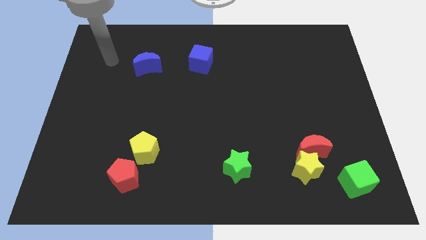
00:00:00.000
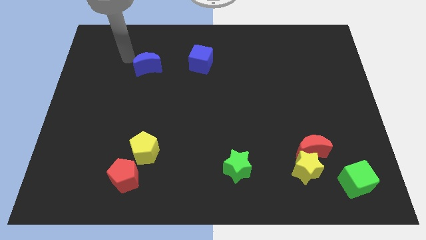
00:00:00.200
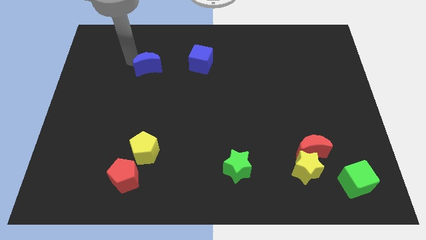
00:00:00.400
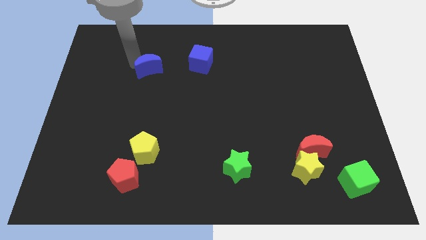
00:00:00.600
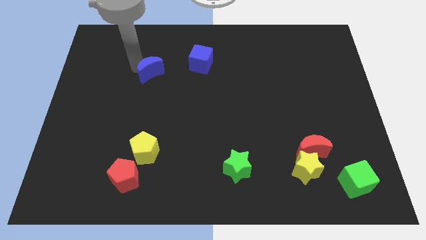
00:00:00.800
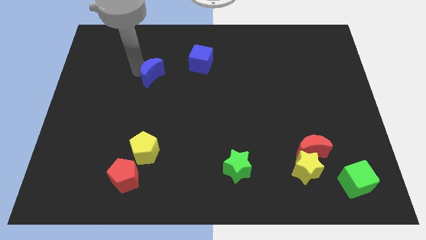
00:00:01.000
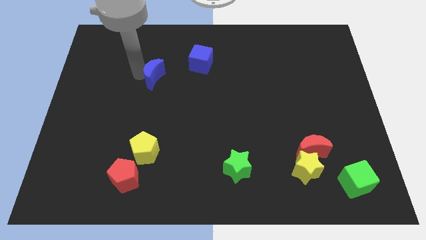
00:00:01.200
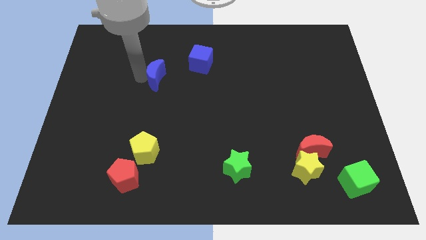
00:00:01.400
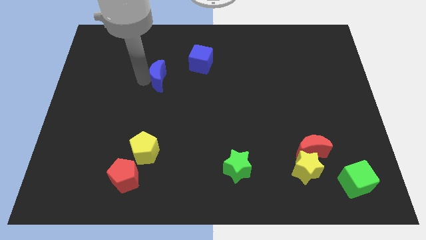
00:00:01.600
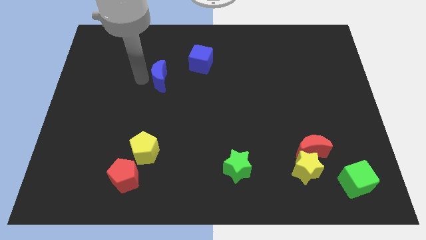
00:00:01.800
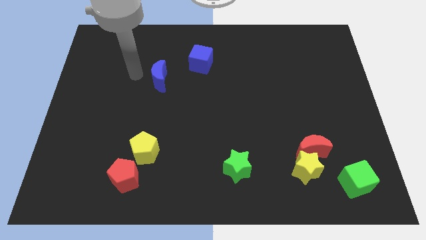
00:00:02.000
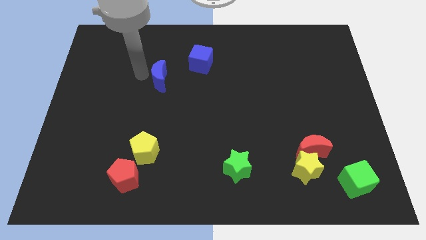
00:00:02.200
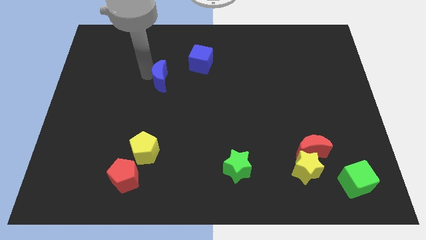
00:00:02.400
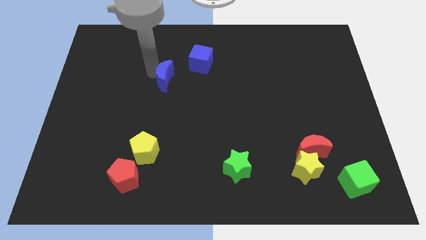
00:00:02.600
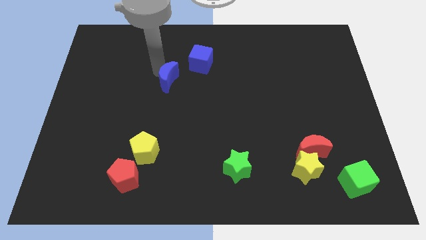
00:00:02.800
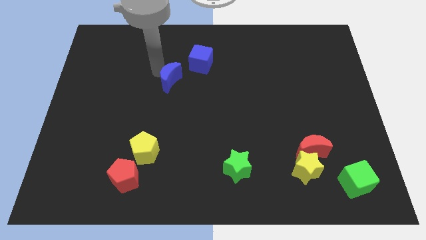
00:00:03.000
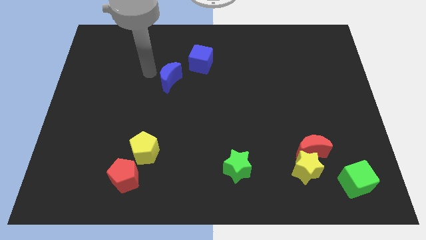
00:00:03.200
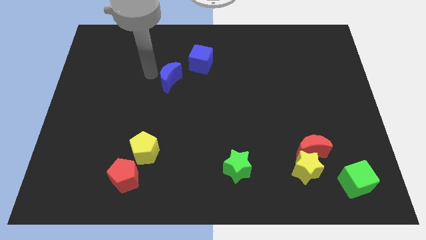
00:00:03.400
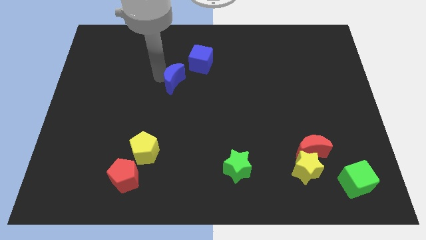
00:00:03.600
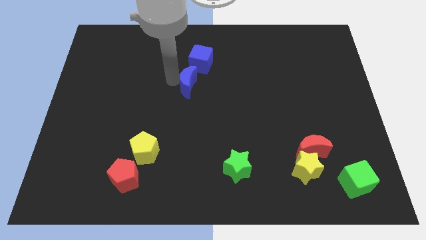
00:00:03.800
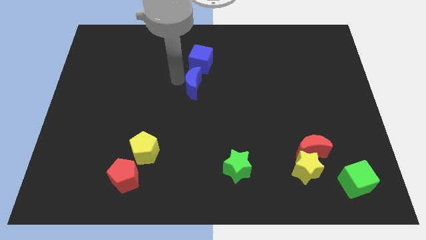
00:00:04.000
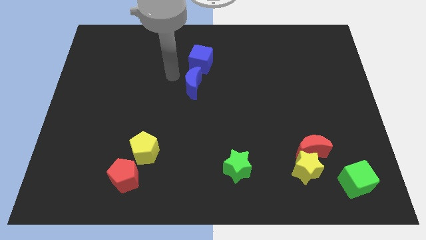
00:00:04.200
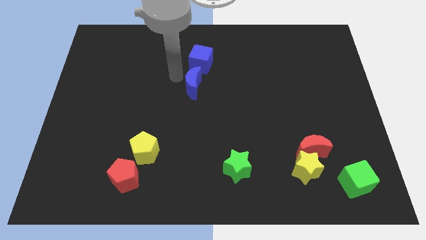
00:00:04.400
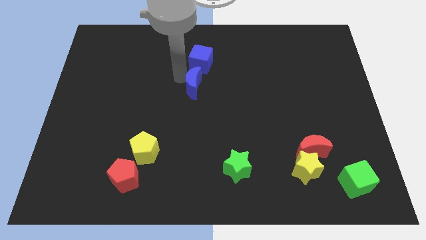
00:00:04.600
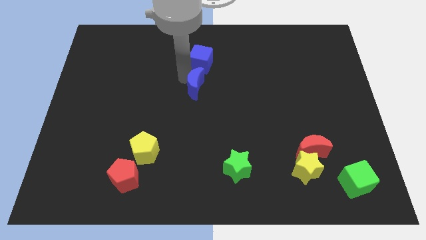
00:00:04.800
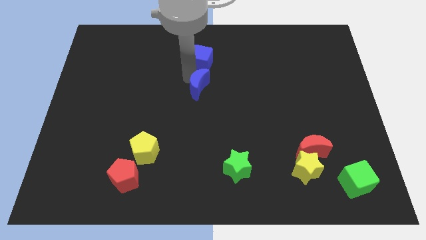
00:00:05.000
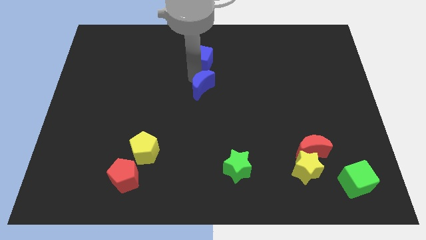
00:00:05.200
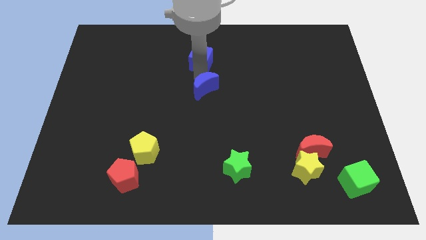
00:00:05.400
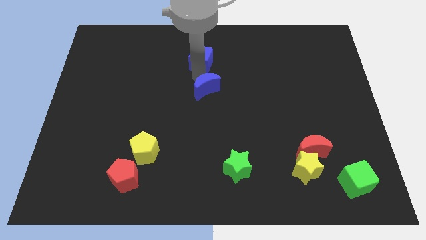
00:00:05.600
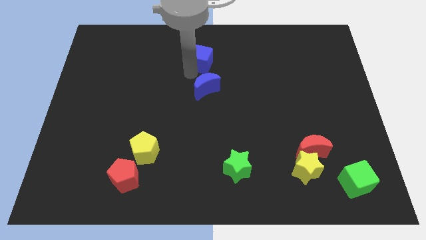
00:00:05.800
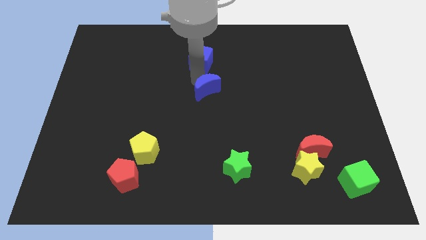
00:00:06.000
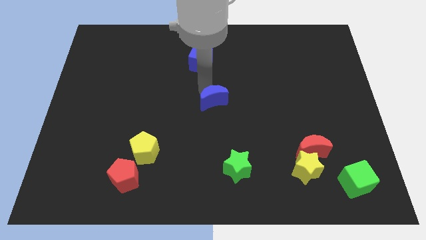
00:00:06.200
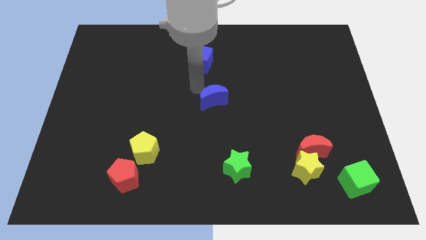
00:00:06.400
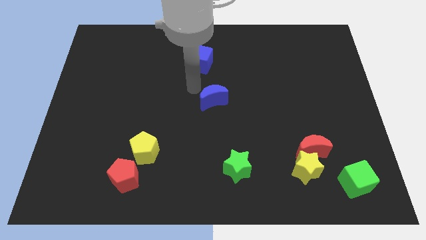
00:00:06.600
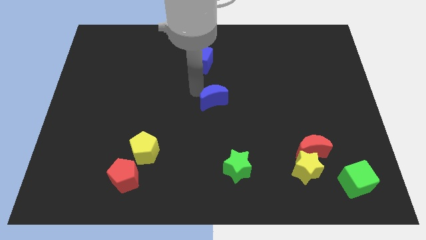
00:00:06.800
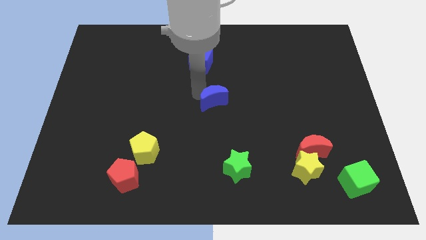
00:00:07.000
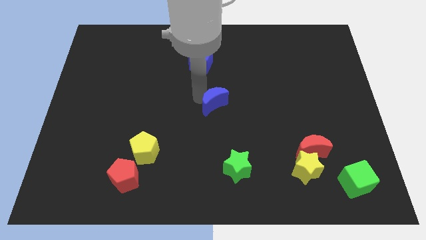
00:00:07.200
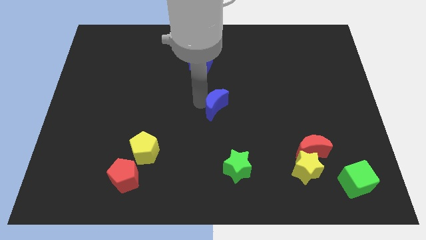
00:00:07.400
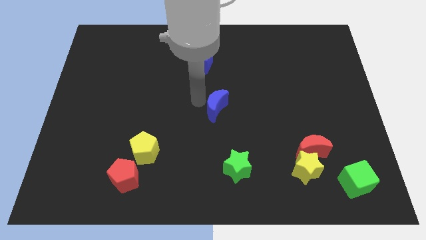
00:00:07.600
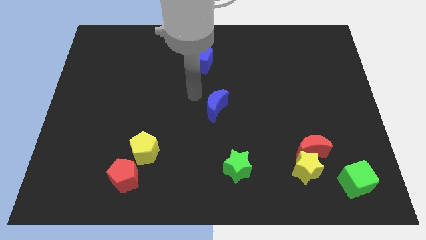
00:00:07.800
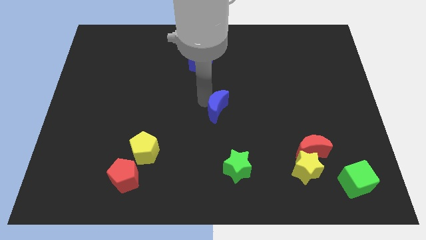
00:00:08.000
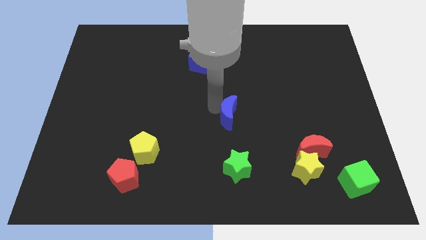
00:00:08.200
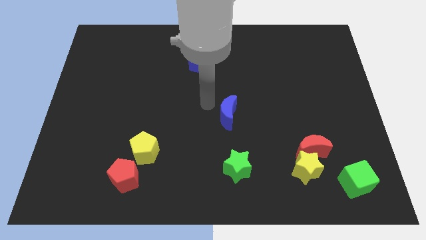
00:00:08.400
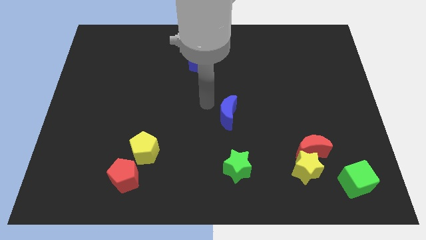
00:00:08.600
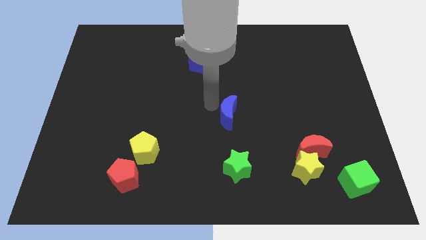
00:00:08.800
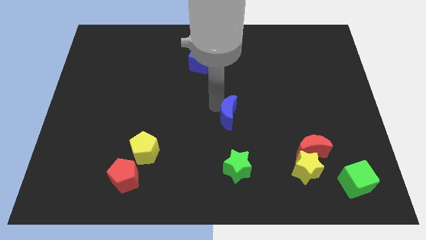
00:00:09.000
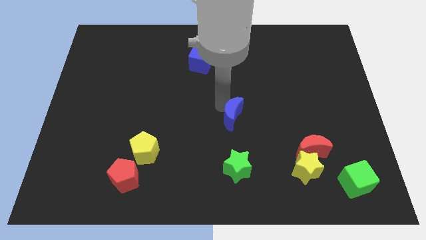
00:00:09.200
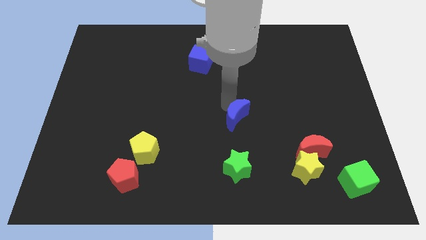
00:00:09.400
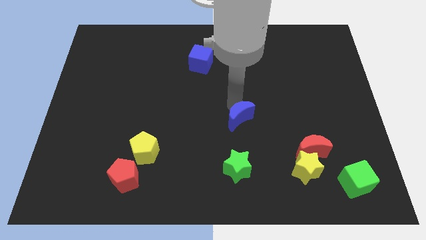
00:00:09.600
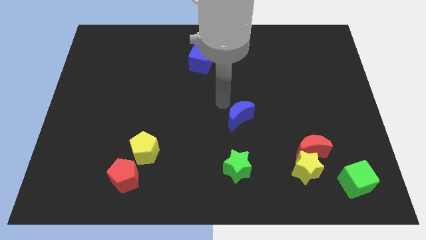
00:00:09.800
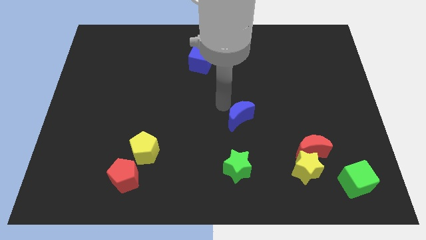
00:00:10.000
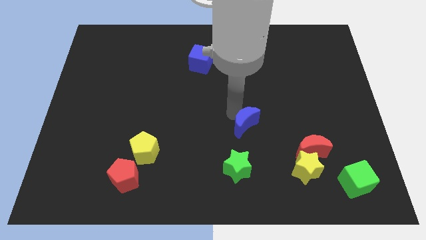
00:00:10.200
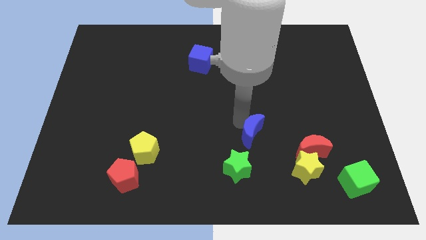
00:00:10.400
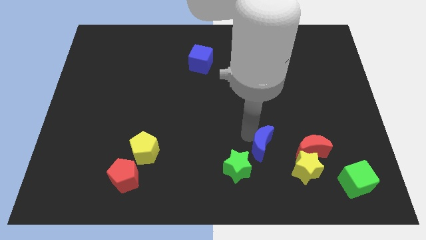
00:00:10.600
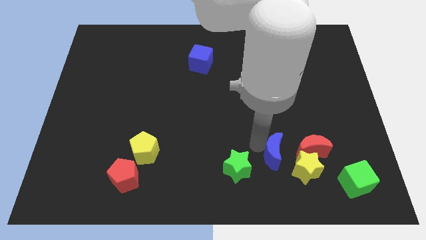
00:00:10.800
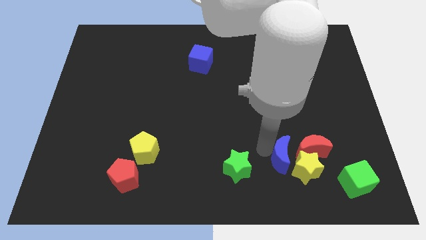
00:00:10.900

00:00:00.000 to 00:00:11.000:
push the blue moon to the yellow star

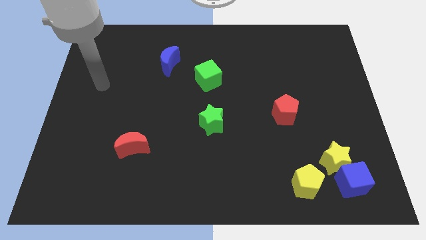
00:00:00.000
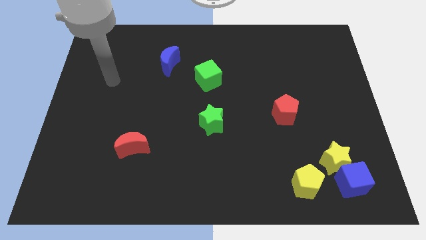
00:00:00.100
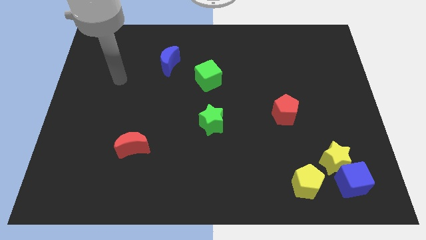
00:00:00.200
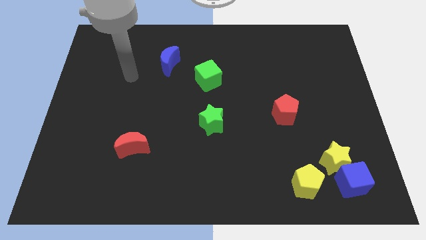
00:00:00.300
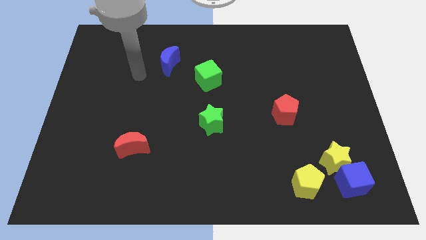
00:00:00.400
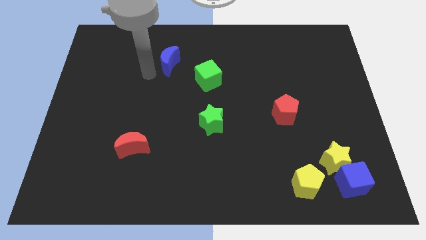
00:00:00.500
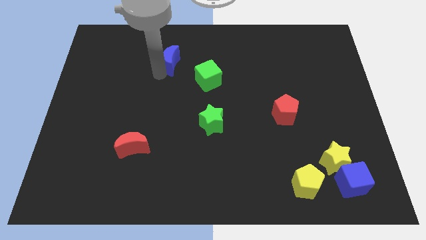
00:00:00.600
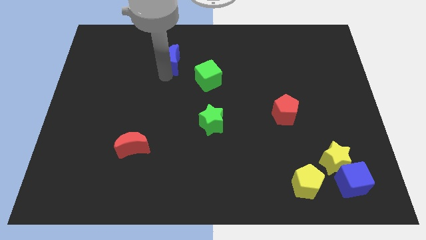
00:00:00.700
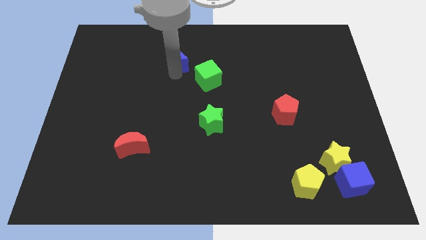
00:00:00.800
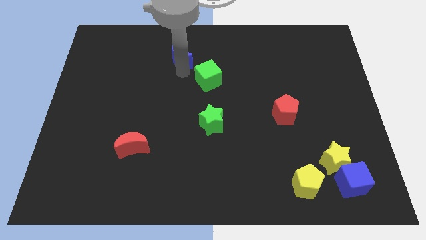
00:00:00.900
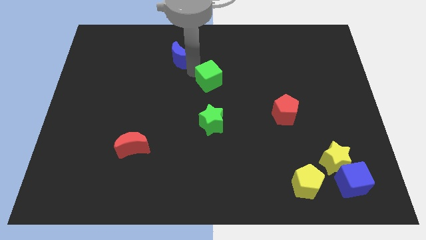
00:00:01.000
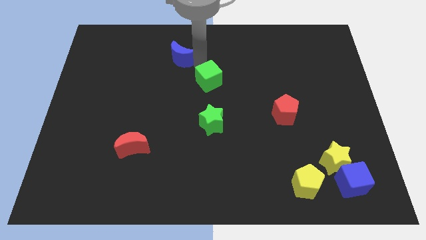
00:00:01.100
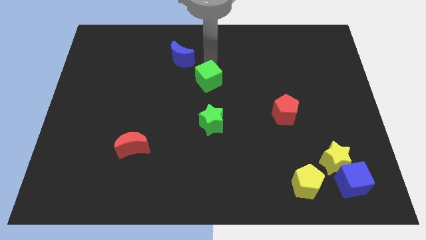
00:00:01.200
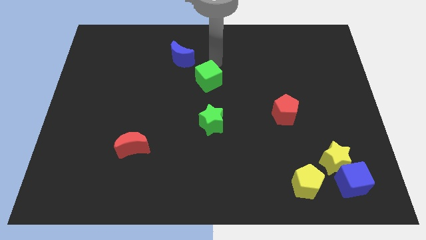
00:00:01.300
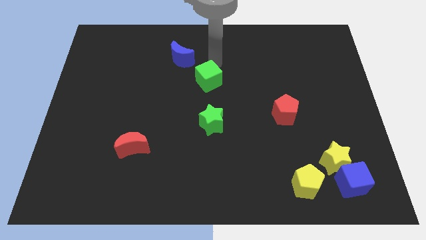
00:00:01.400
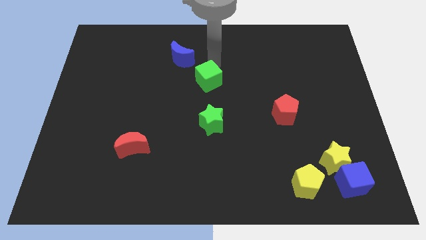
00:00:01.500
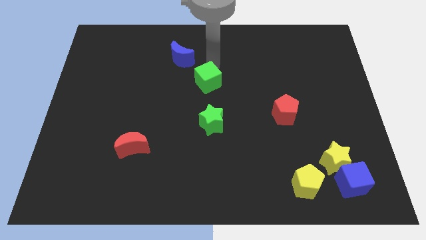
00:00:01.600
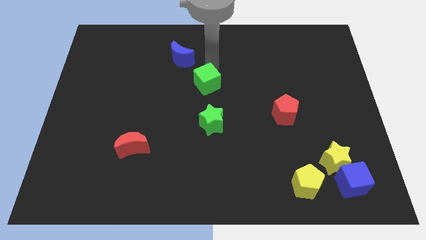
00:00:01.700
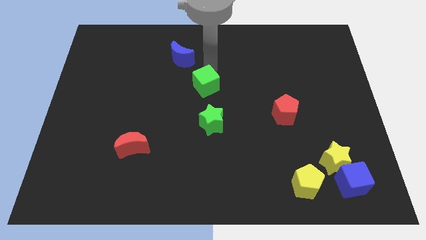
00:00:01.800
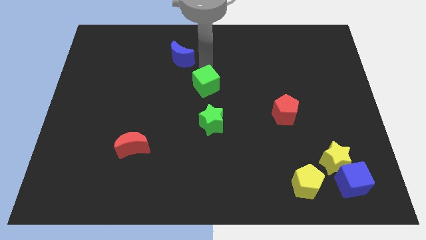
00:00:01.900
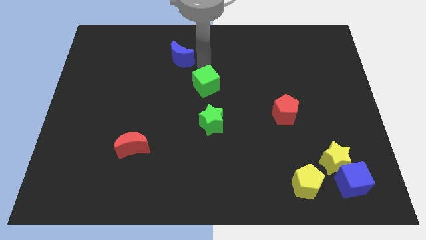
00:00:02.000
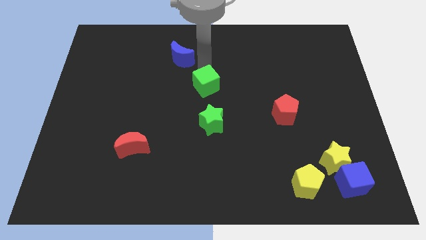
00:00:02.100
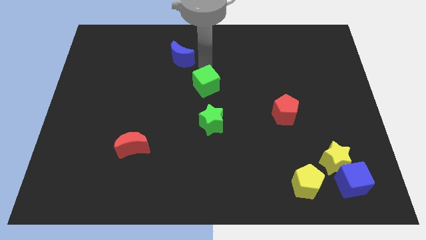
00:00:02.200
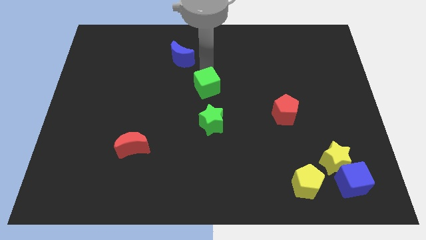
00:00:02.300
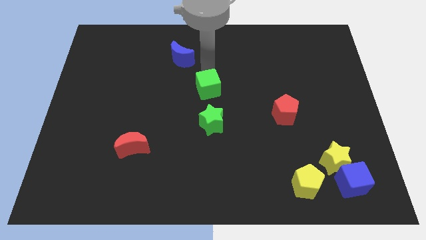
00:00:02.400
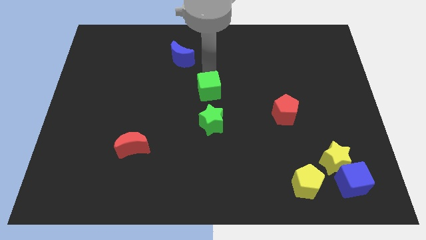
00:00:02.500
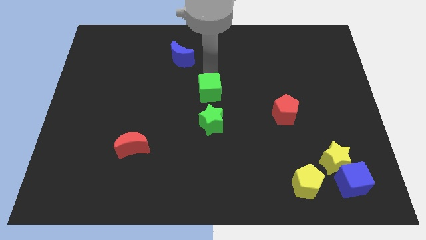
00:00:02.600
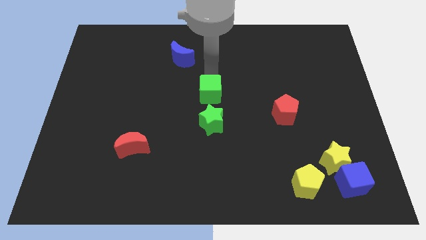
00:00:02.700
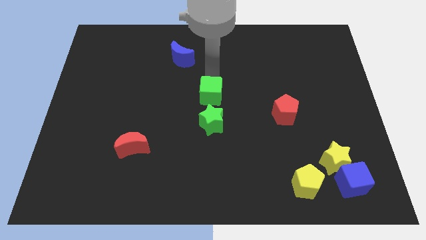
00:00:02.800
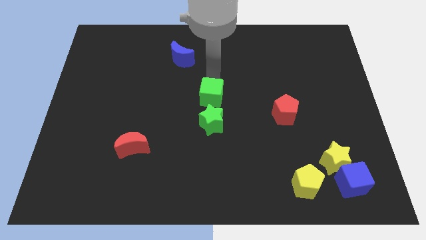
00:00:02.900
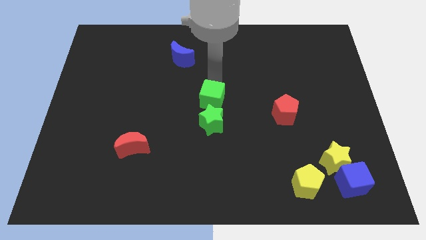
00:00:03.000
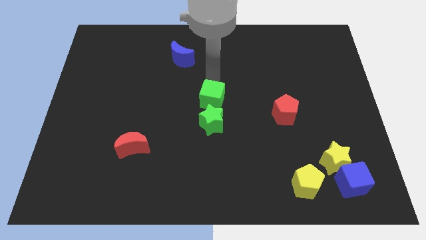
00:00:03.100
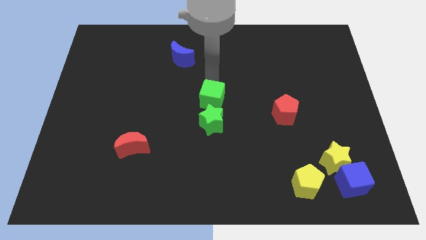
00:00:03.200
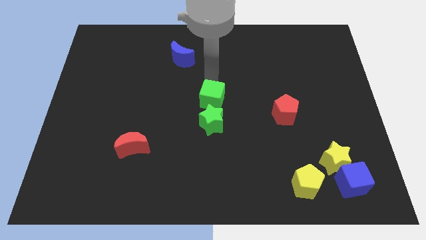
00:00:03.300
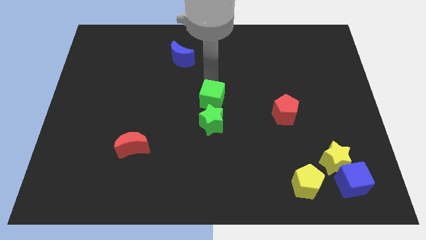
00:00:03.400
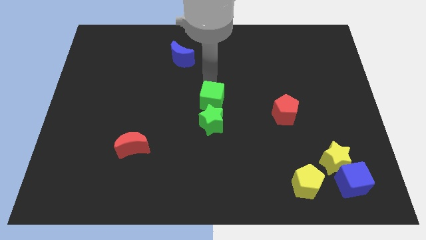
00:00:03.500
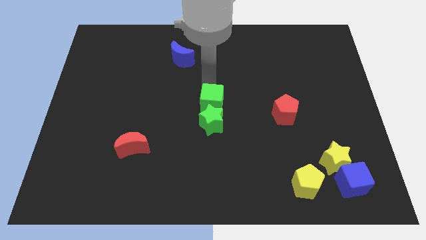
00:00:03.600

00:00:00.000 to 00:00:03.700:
push the green cube next to the green star
